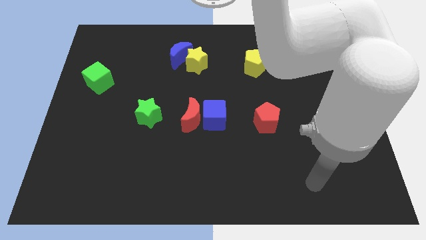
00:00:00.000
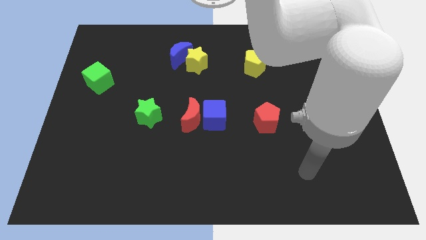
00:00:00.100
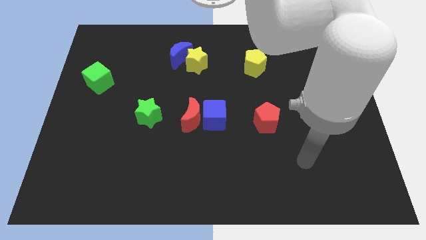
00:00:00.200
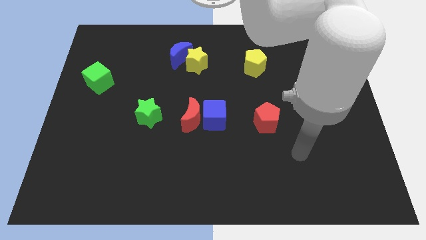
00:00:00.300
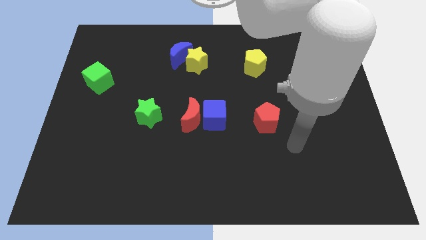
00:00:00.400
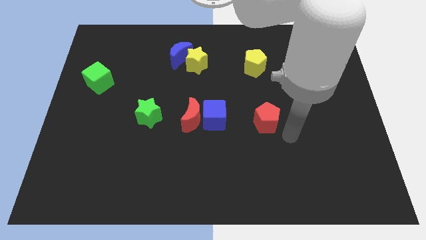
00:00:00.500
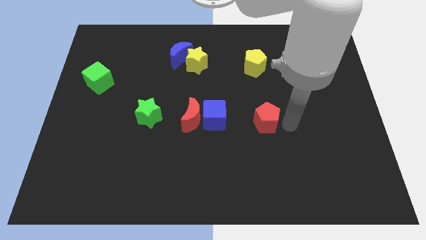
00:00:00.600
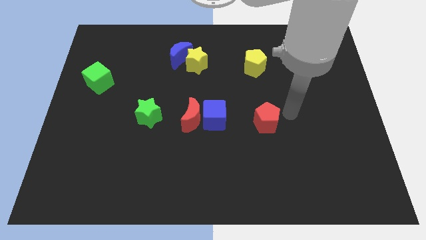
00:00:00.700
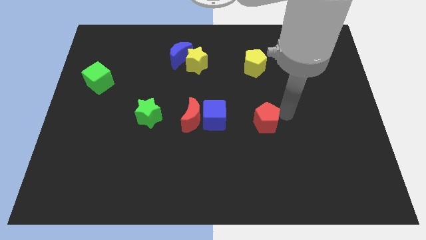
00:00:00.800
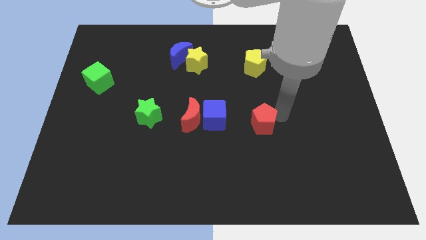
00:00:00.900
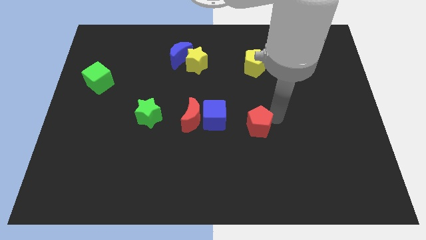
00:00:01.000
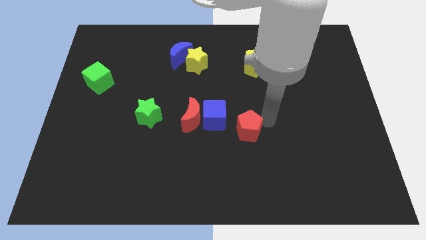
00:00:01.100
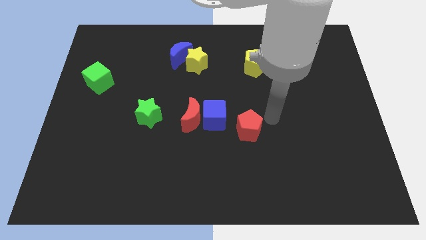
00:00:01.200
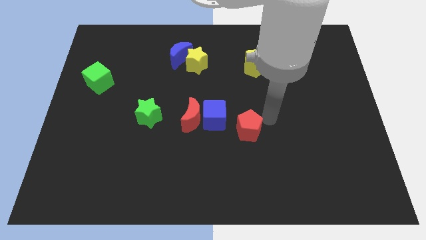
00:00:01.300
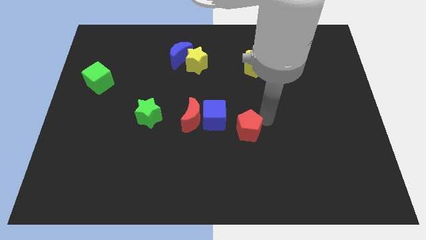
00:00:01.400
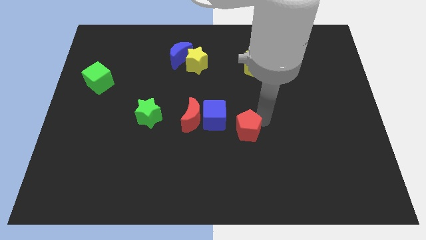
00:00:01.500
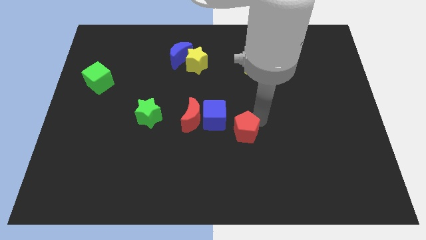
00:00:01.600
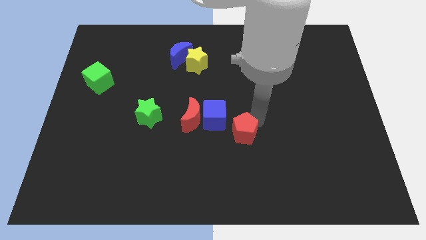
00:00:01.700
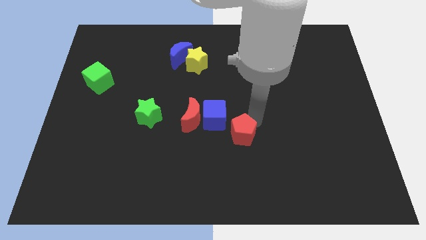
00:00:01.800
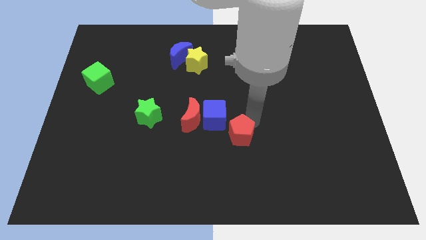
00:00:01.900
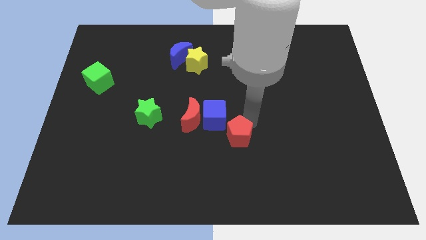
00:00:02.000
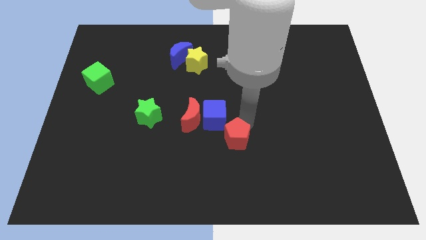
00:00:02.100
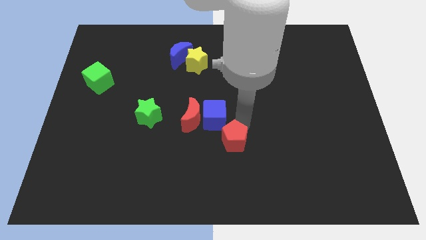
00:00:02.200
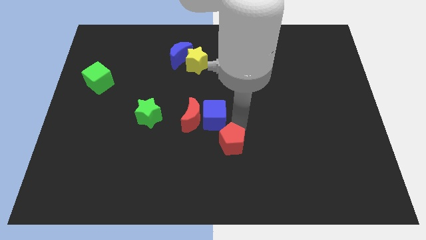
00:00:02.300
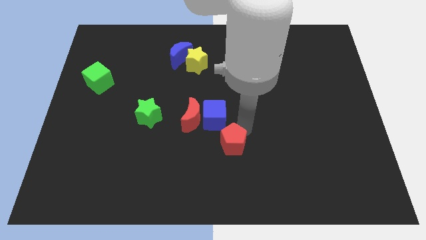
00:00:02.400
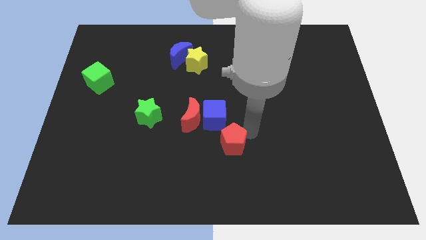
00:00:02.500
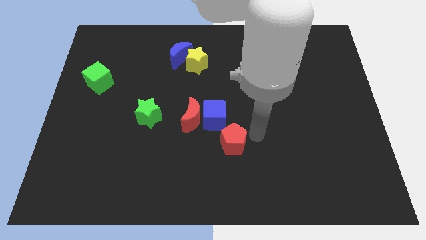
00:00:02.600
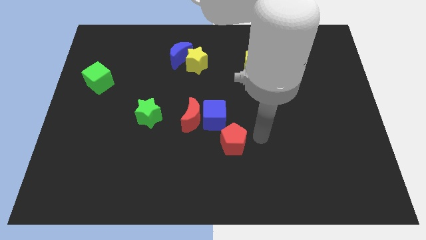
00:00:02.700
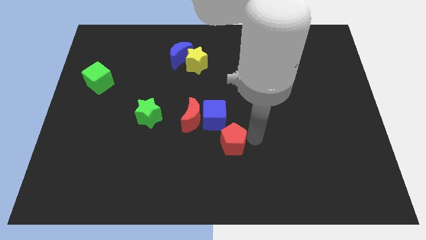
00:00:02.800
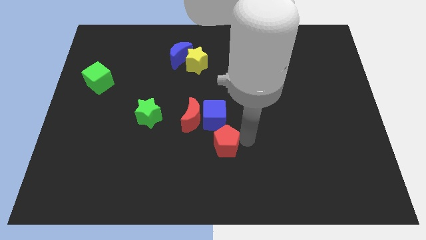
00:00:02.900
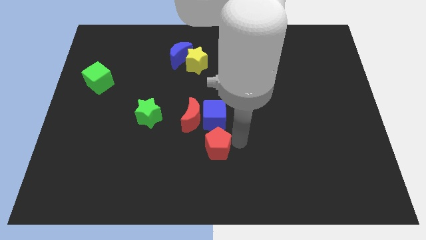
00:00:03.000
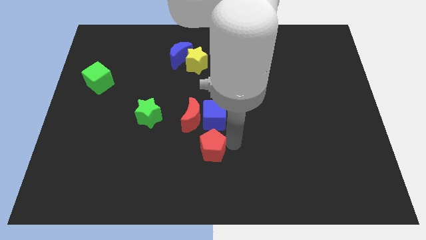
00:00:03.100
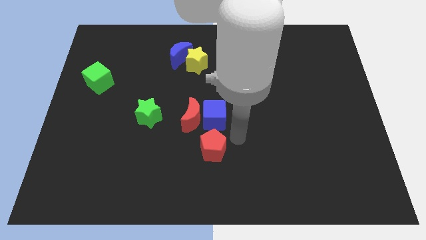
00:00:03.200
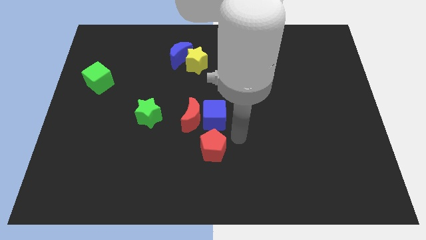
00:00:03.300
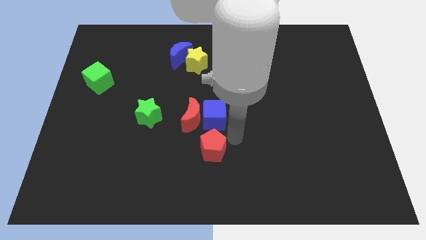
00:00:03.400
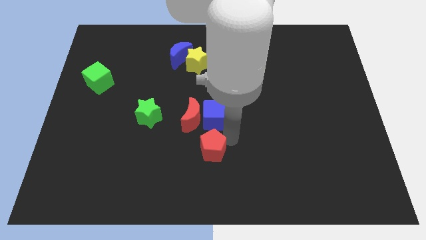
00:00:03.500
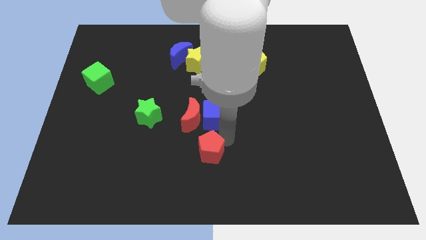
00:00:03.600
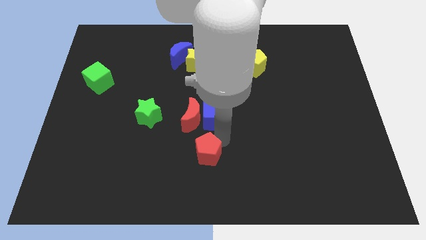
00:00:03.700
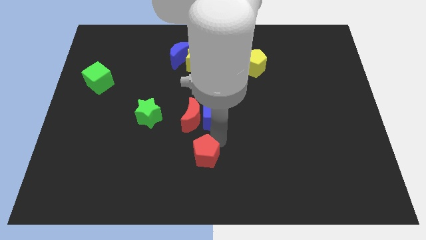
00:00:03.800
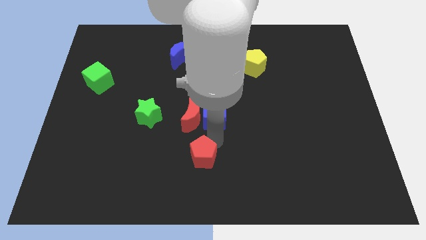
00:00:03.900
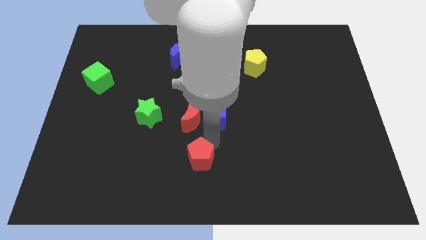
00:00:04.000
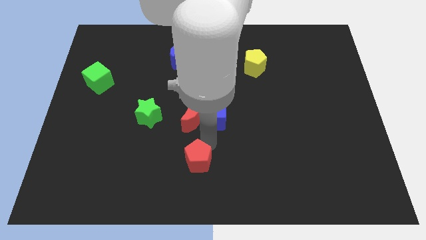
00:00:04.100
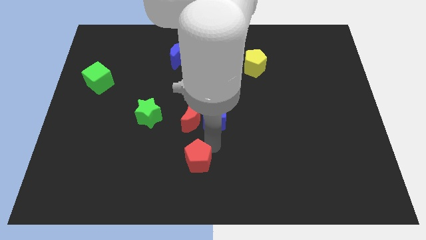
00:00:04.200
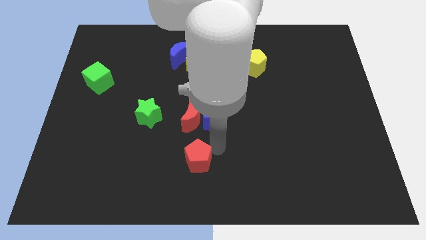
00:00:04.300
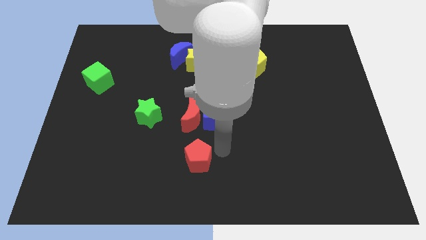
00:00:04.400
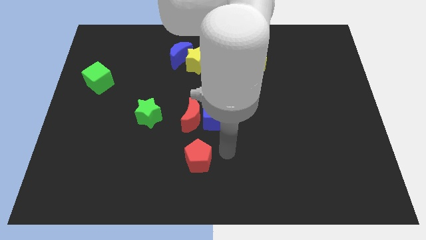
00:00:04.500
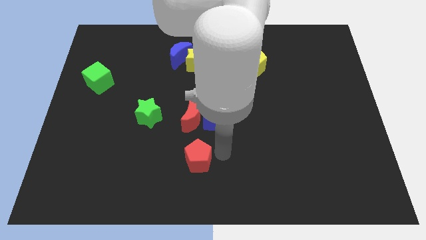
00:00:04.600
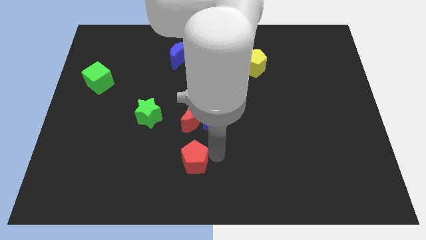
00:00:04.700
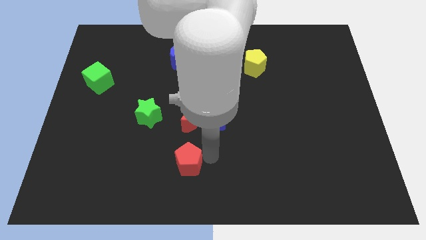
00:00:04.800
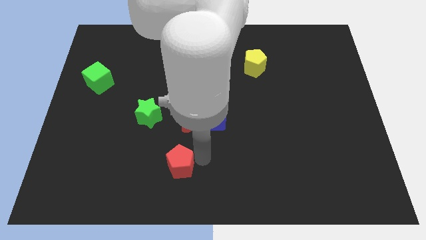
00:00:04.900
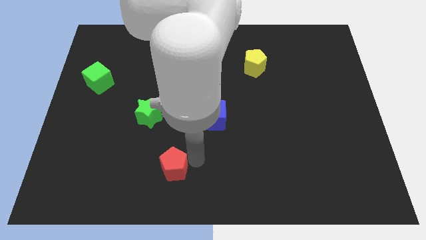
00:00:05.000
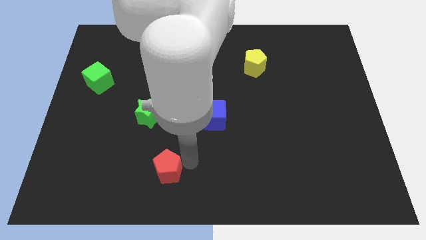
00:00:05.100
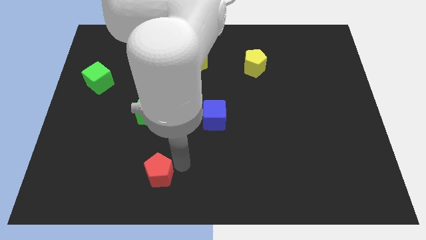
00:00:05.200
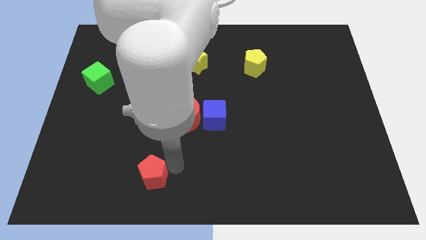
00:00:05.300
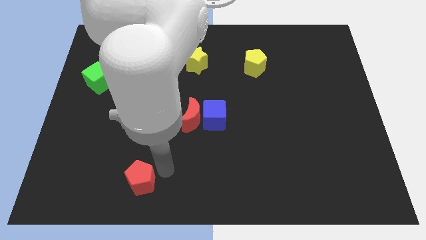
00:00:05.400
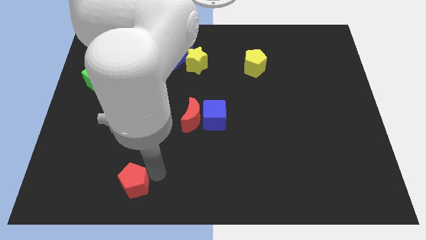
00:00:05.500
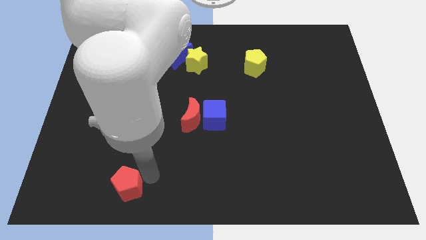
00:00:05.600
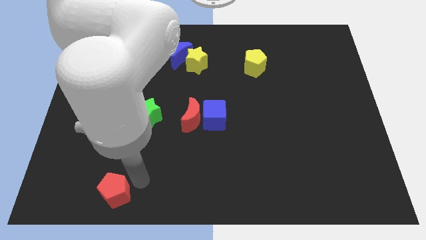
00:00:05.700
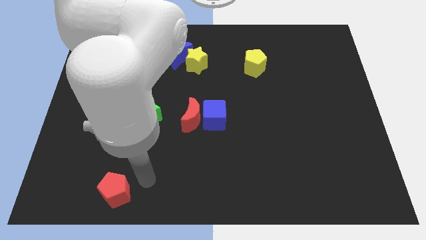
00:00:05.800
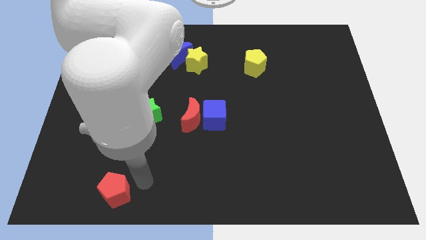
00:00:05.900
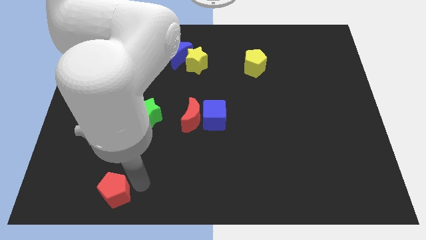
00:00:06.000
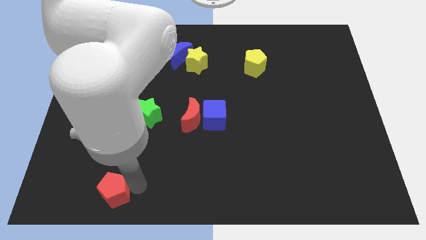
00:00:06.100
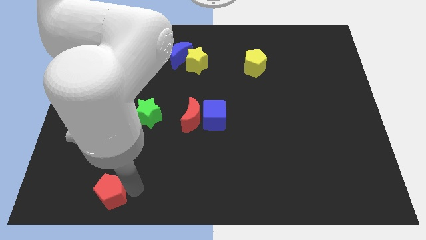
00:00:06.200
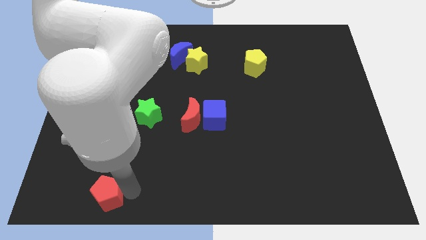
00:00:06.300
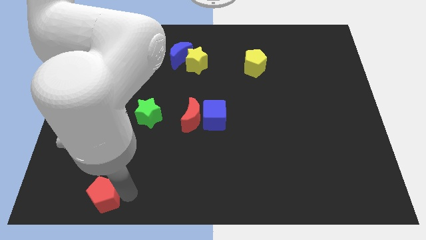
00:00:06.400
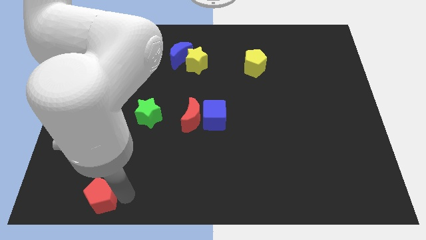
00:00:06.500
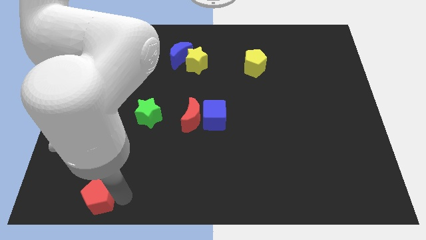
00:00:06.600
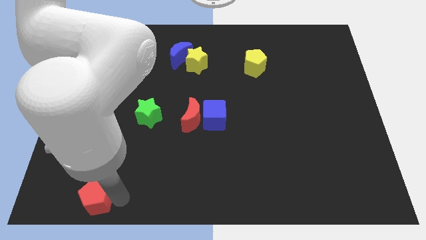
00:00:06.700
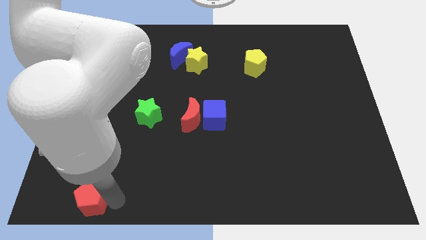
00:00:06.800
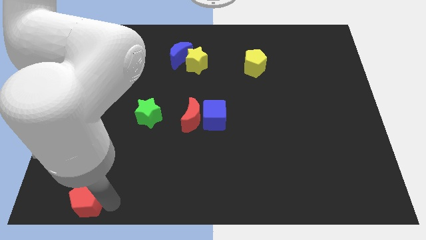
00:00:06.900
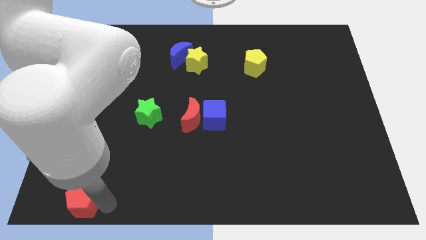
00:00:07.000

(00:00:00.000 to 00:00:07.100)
put the red pentagon to the bottom left
